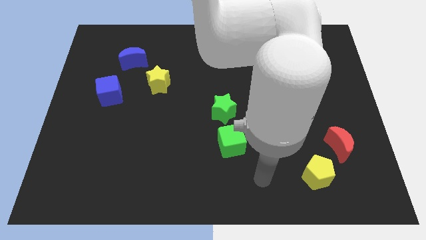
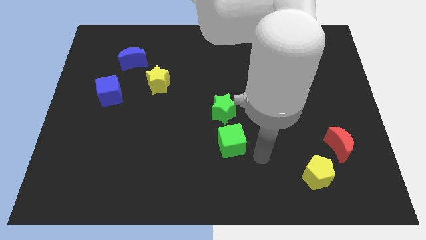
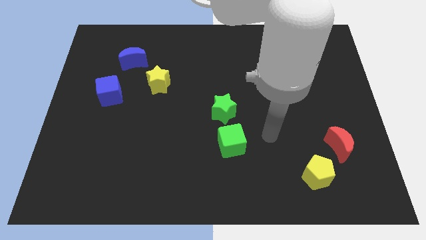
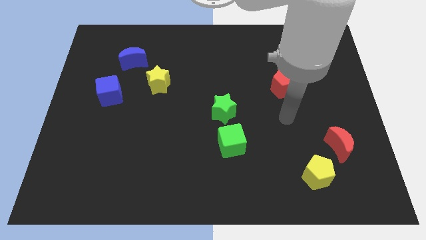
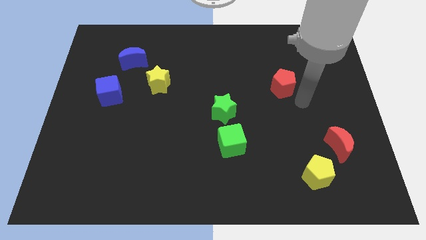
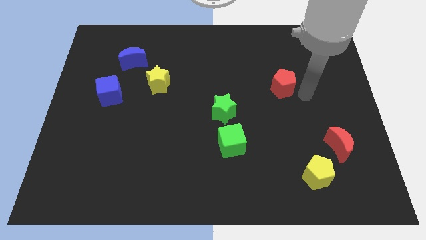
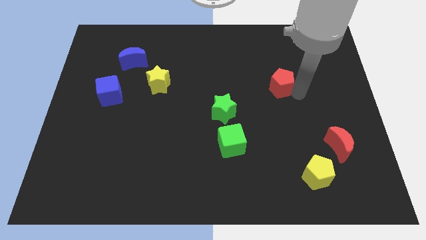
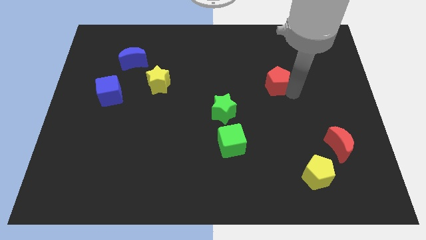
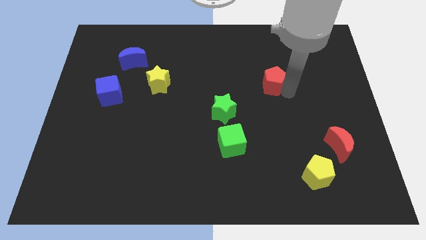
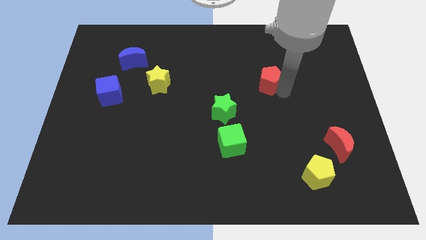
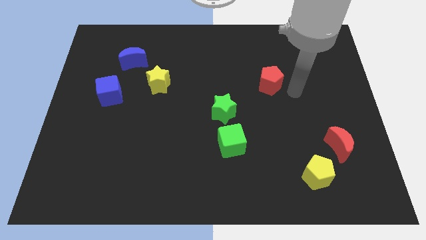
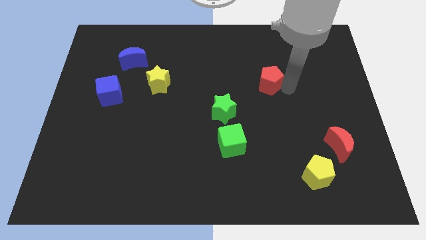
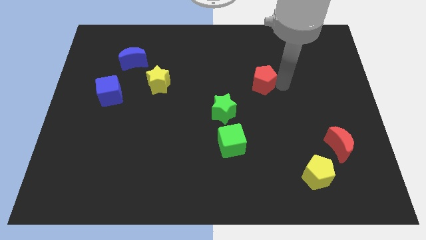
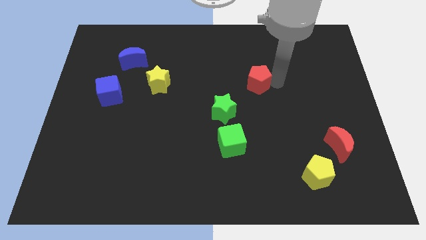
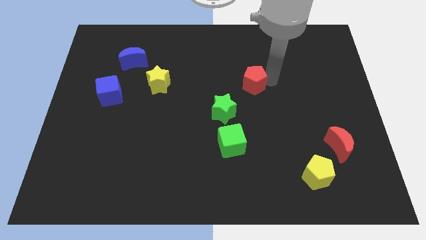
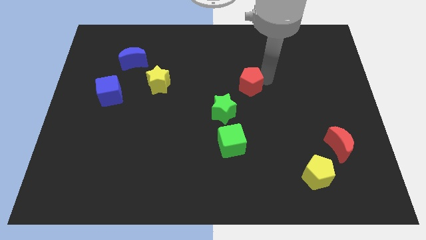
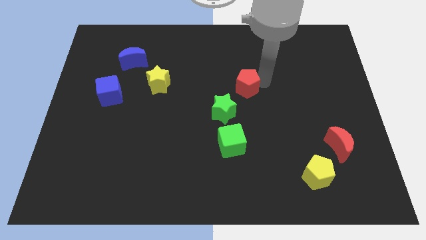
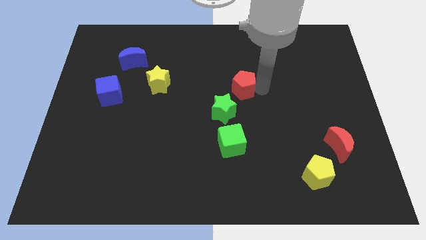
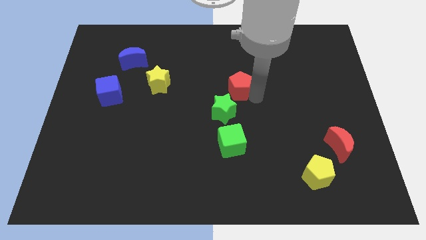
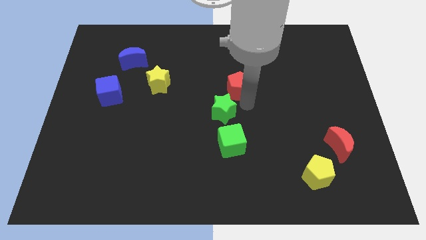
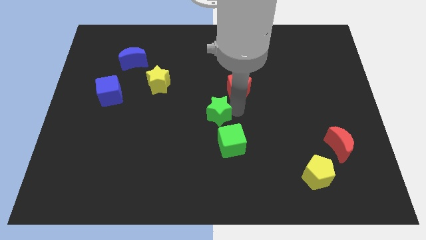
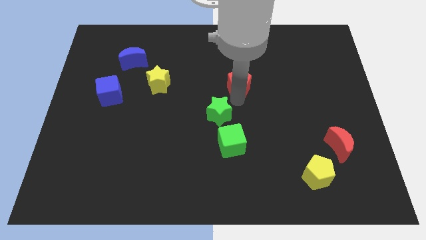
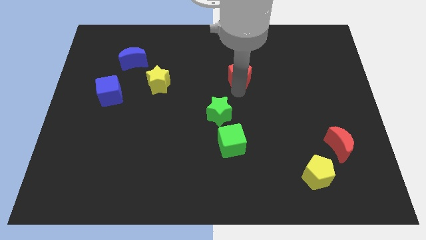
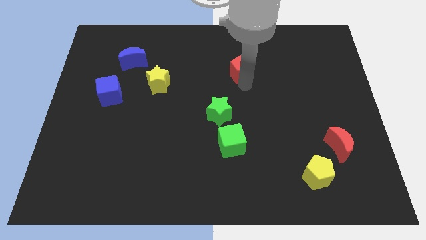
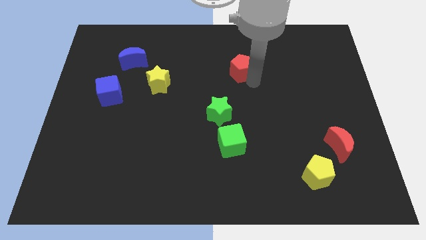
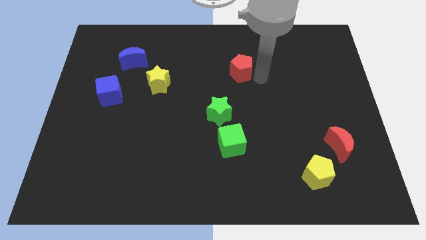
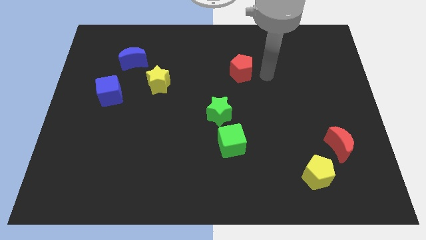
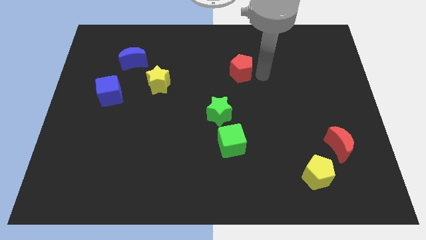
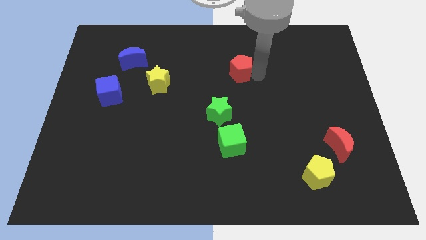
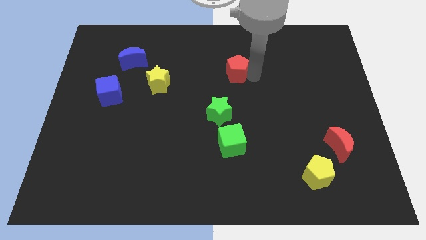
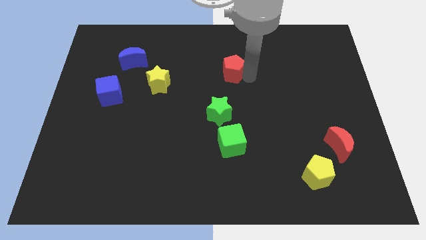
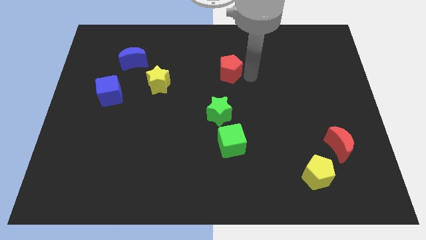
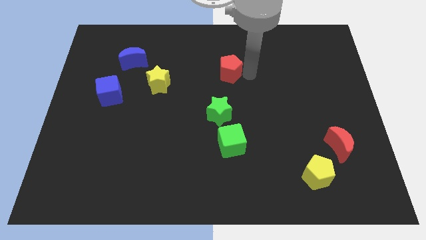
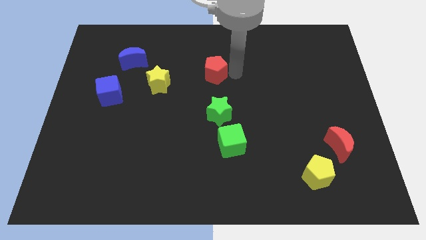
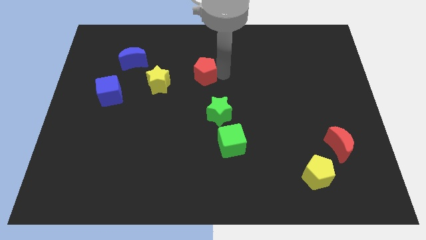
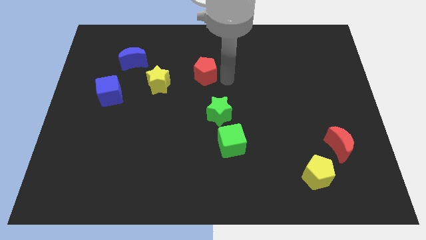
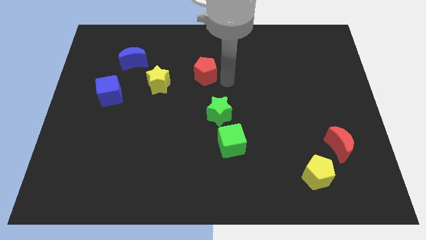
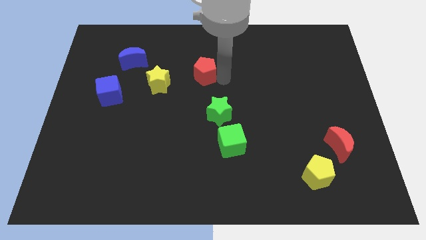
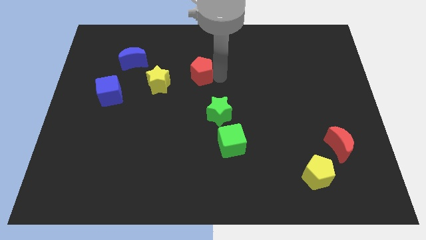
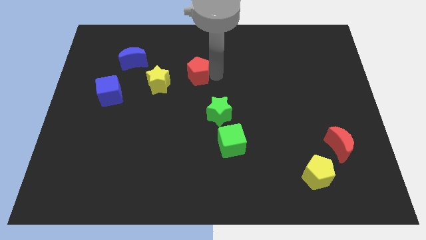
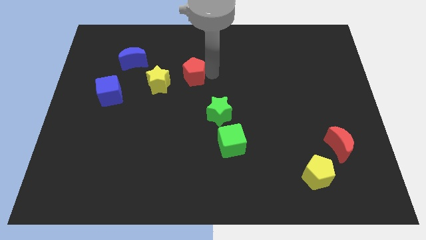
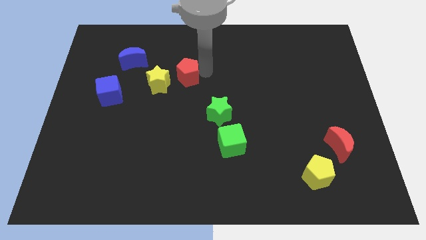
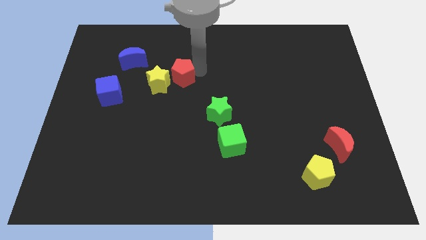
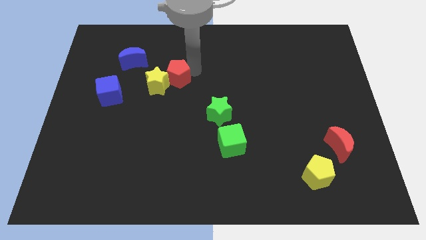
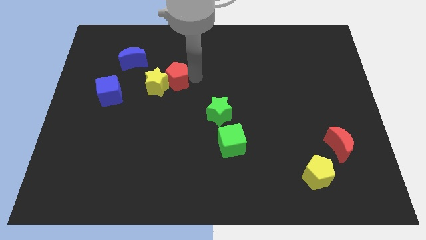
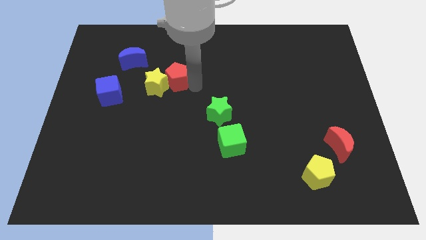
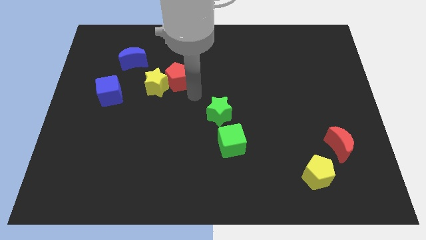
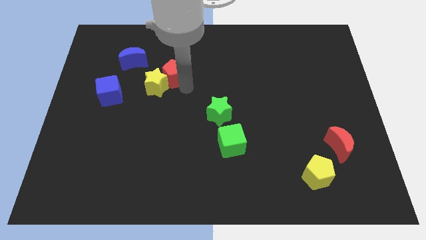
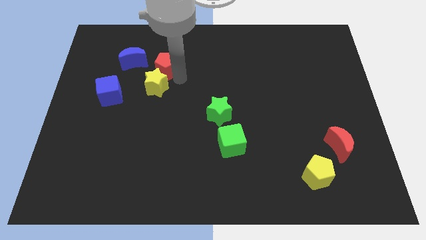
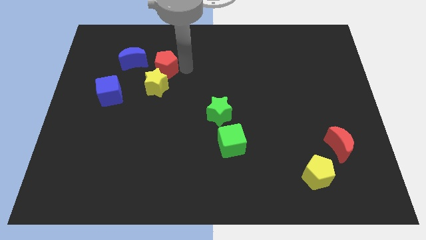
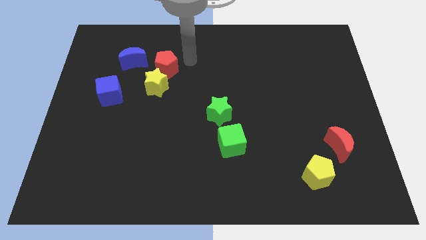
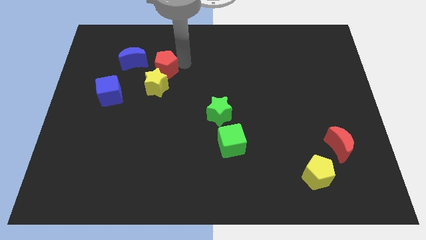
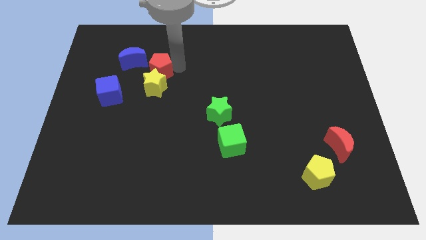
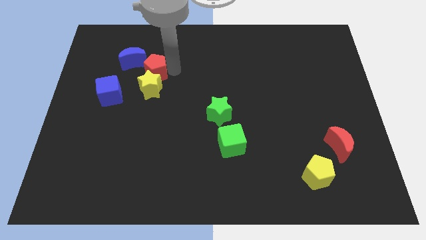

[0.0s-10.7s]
put the red pentagon diagonally up and to the right of the blue cube

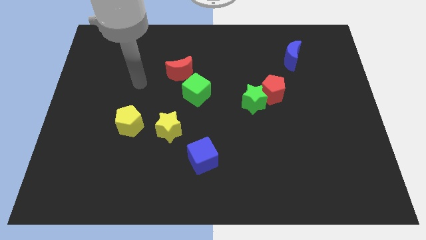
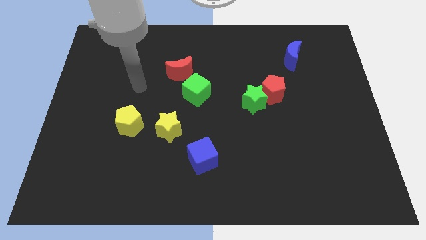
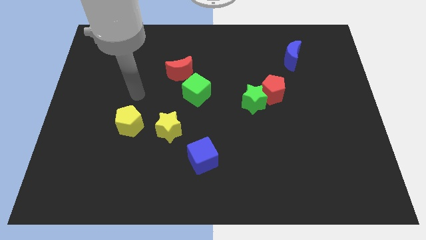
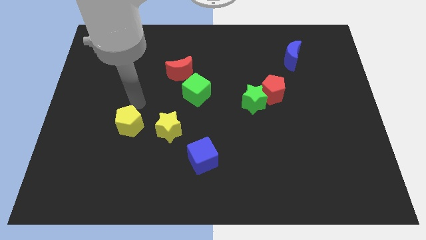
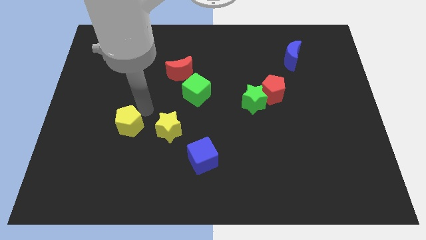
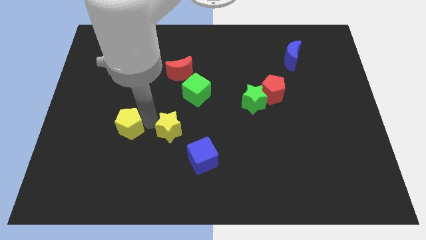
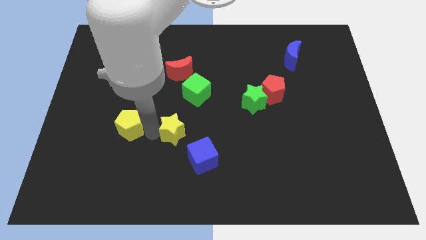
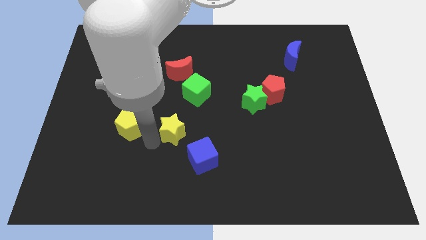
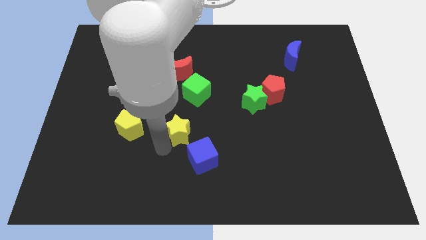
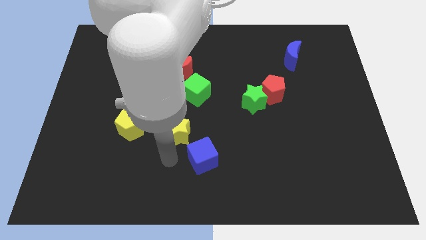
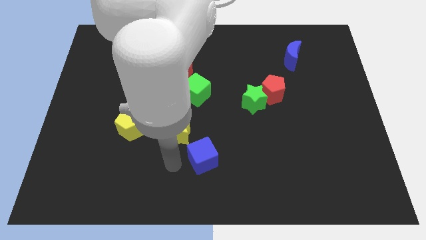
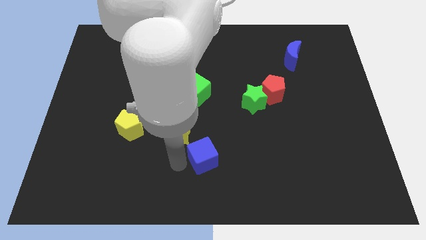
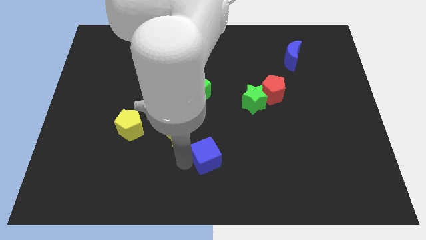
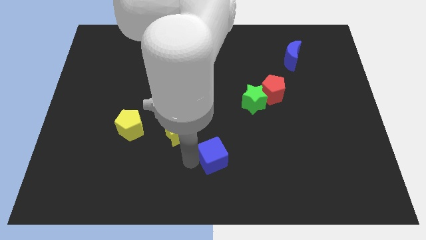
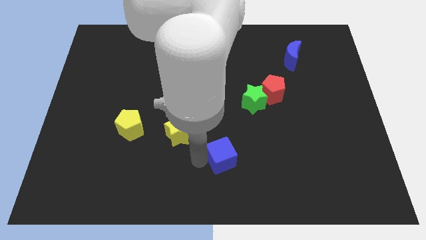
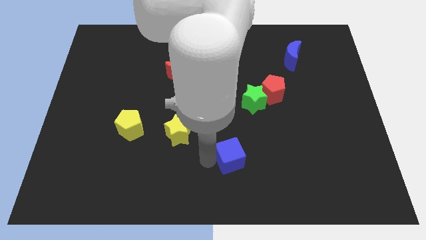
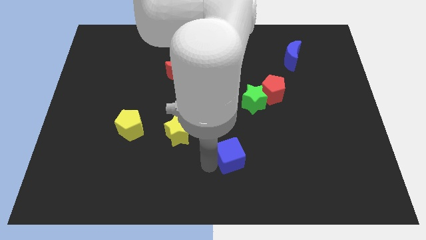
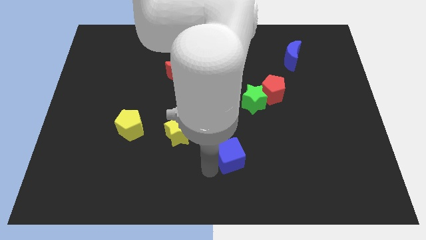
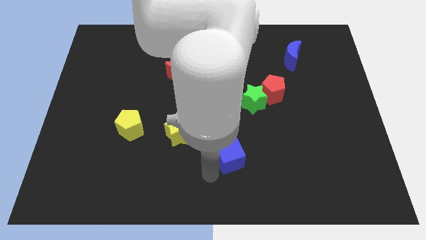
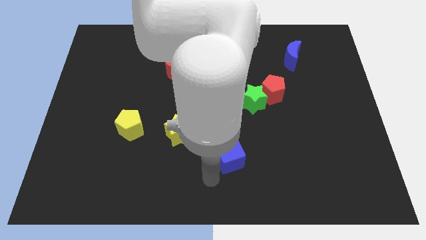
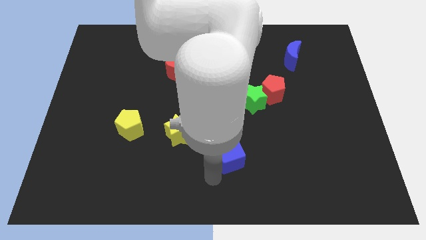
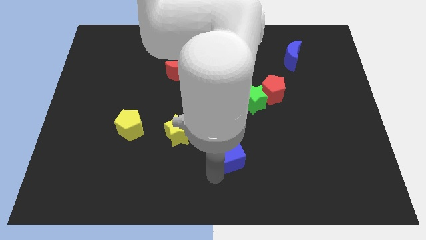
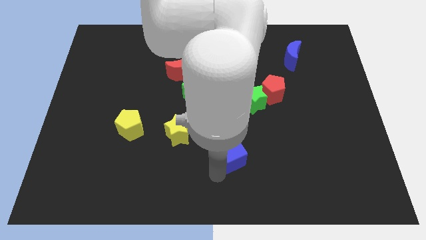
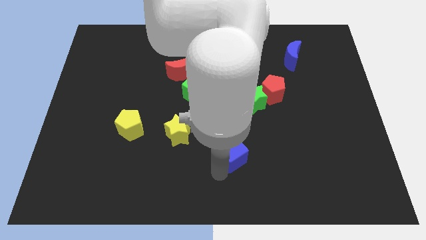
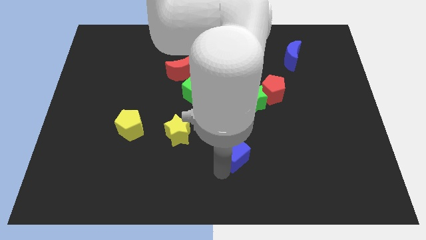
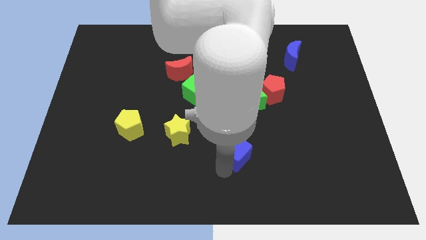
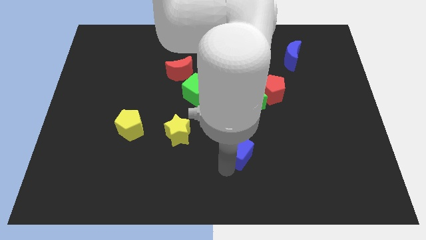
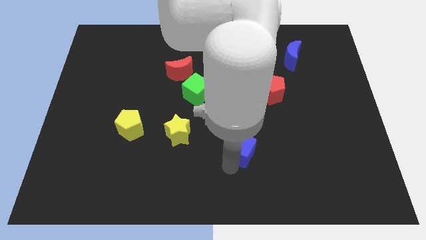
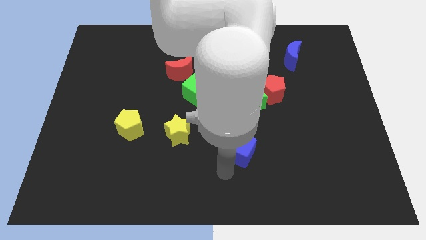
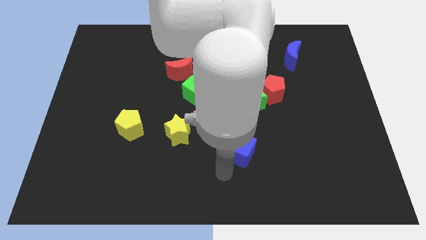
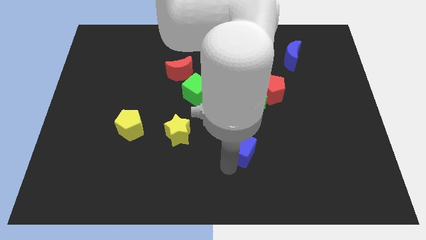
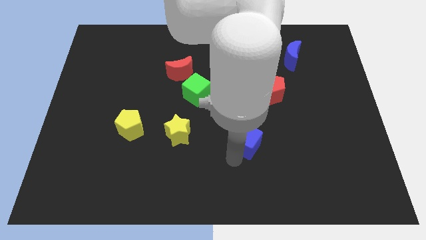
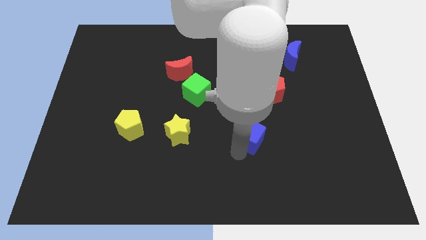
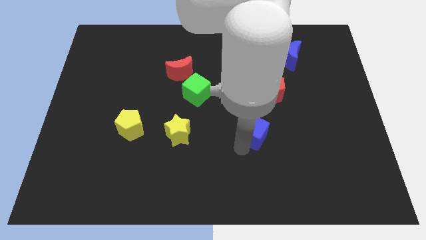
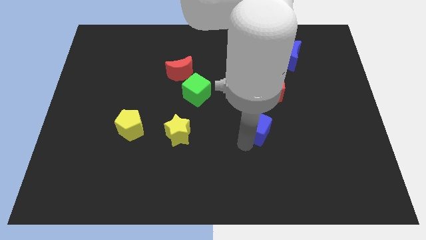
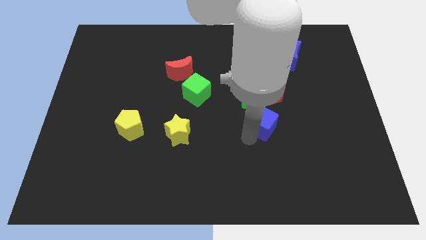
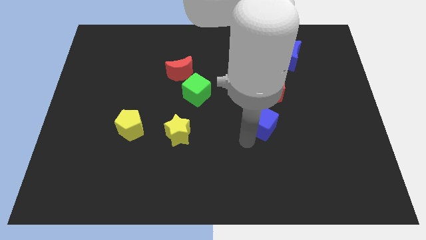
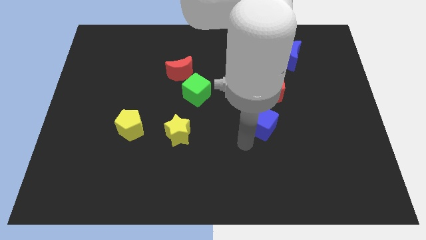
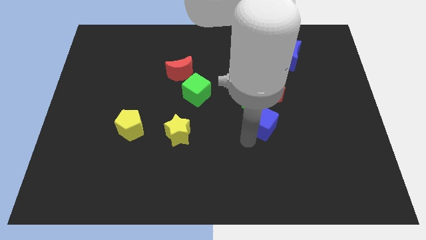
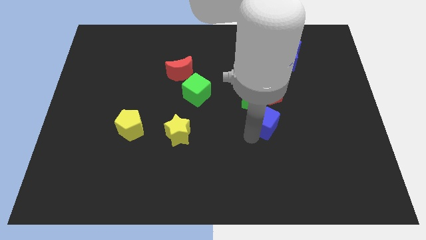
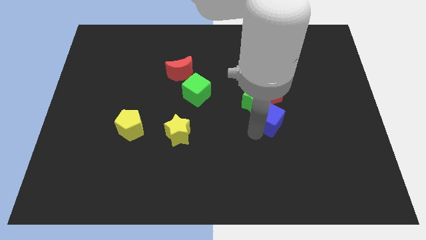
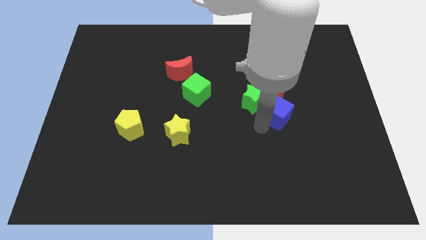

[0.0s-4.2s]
put the blue cube to the right side of the green star
